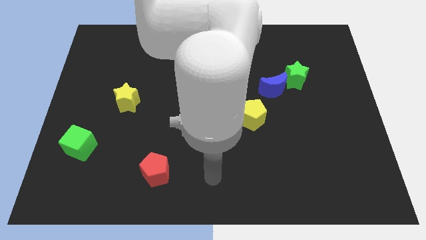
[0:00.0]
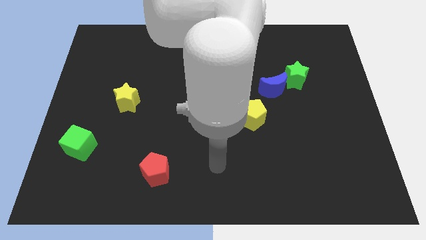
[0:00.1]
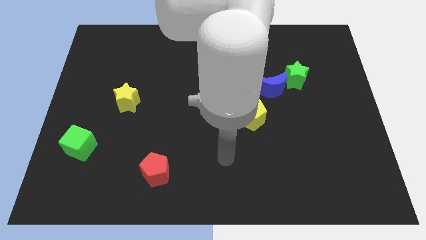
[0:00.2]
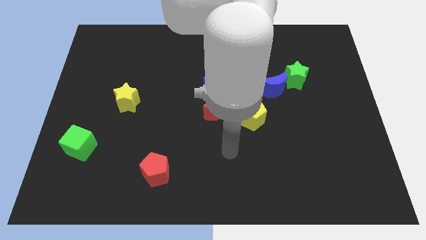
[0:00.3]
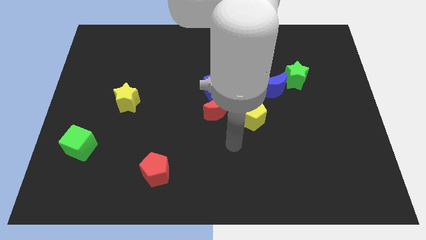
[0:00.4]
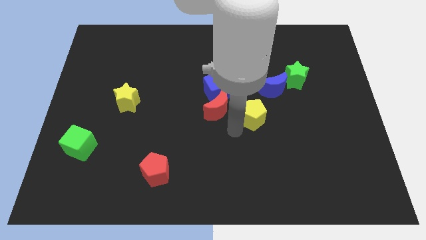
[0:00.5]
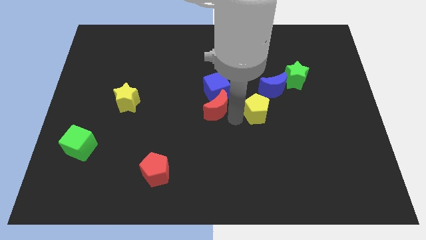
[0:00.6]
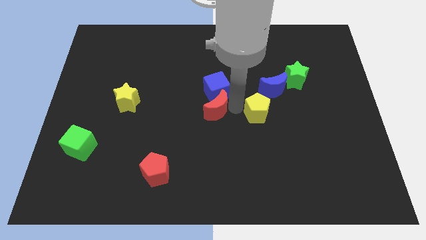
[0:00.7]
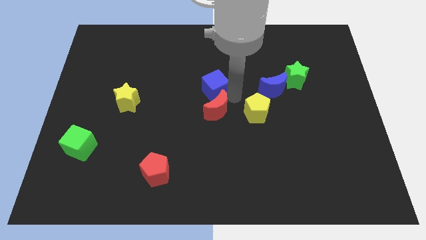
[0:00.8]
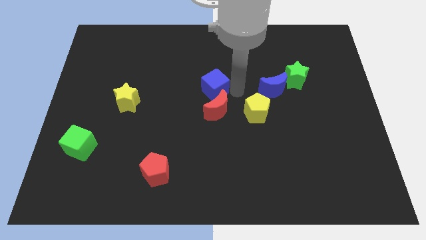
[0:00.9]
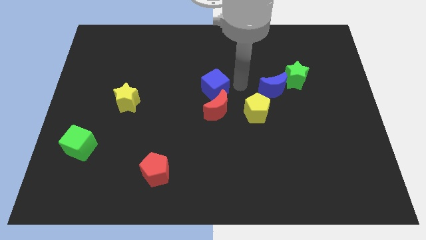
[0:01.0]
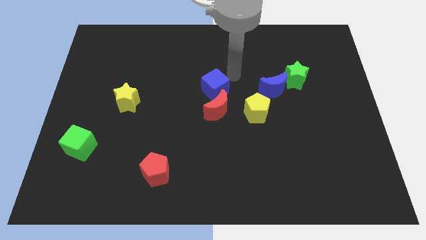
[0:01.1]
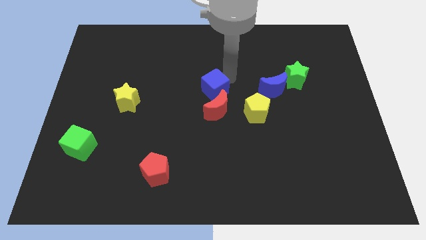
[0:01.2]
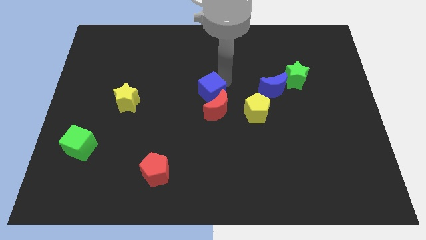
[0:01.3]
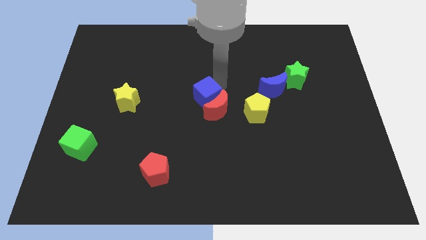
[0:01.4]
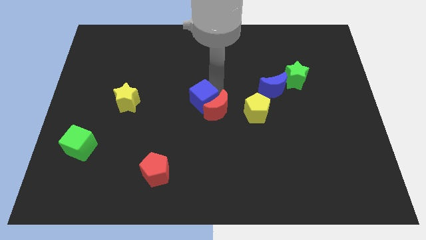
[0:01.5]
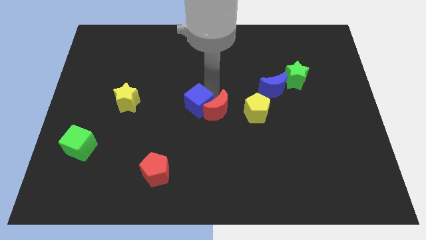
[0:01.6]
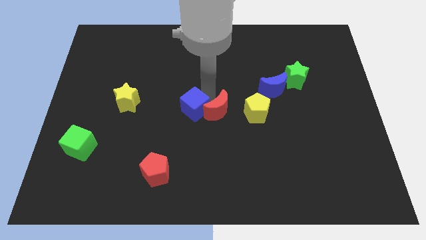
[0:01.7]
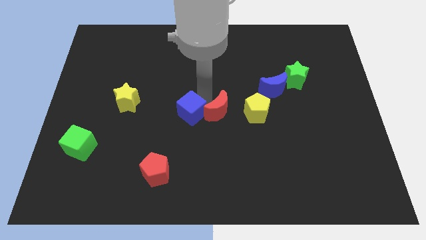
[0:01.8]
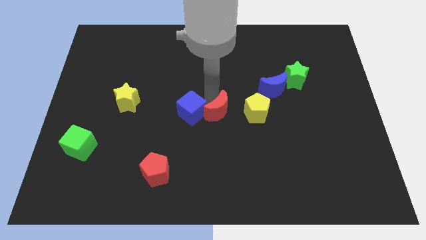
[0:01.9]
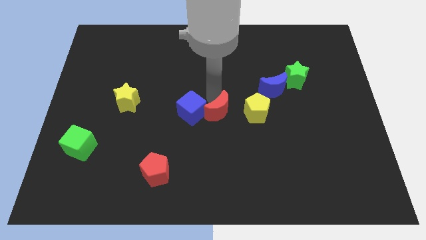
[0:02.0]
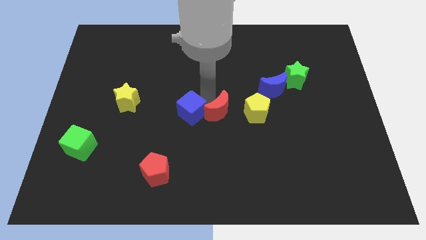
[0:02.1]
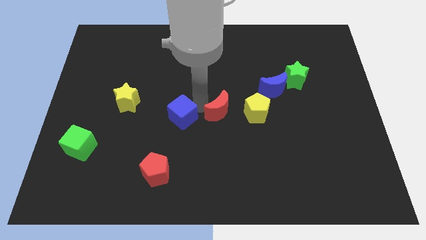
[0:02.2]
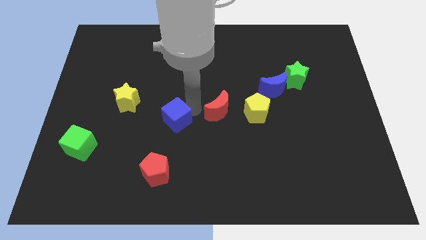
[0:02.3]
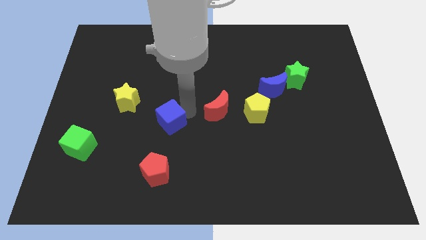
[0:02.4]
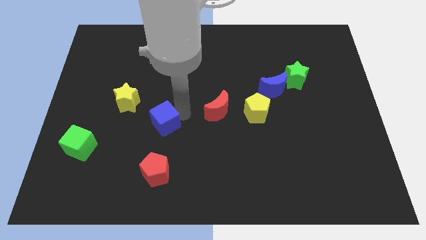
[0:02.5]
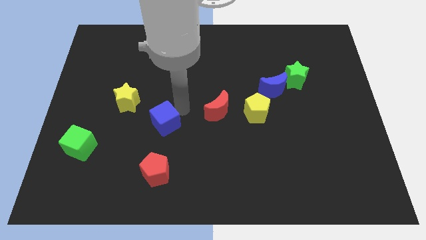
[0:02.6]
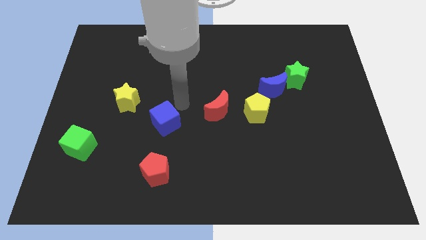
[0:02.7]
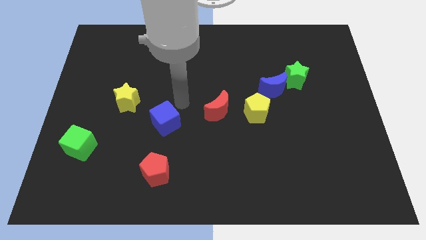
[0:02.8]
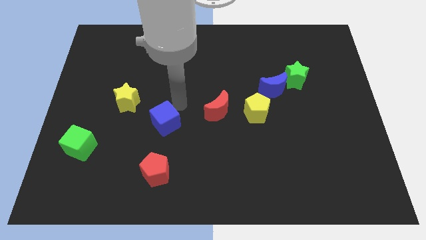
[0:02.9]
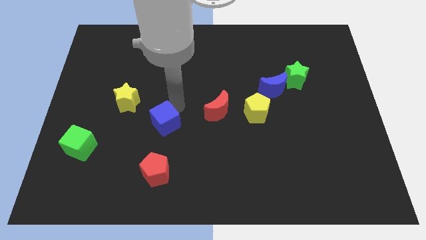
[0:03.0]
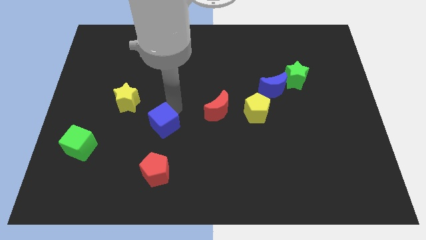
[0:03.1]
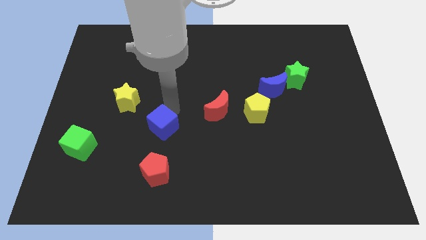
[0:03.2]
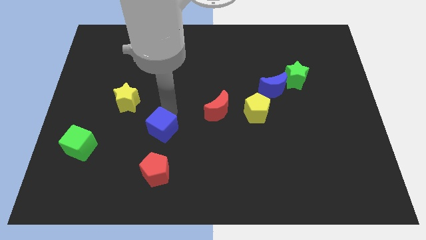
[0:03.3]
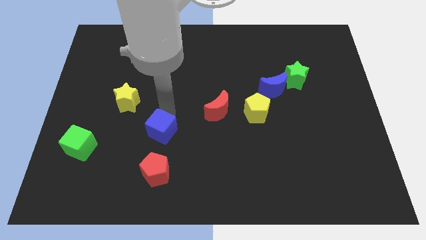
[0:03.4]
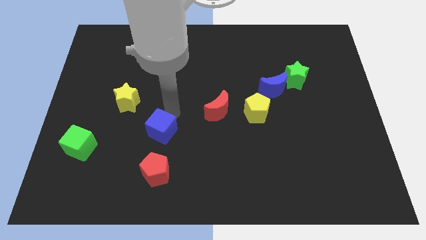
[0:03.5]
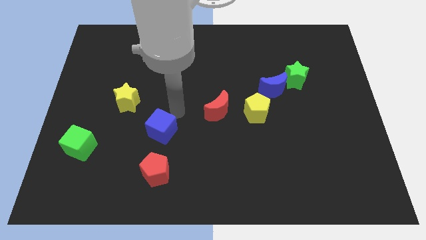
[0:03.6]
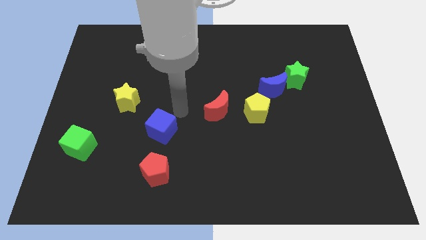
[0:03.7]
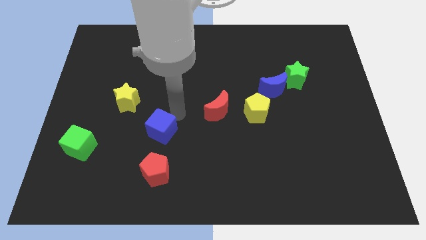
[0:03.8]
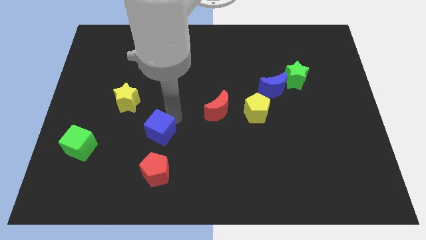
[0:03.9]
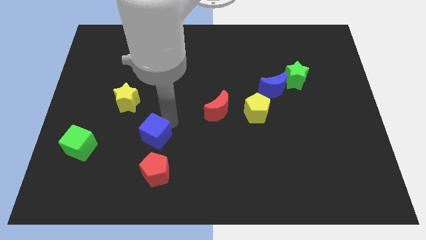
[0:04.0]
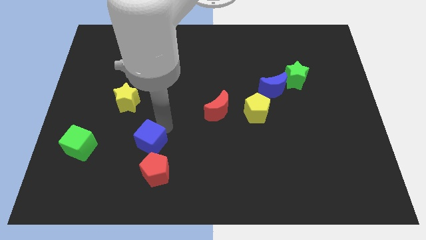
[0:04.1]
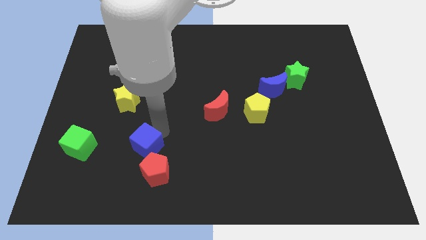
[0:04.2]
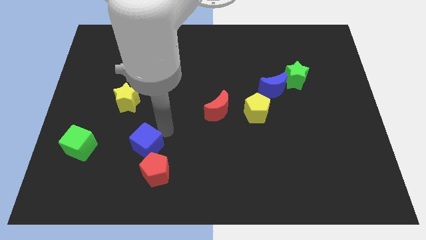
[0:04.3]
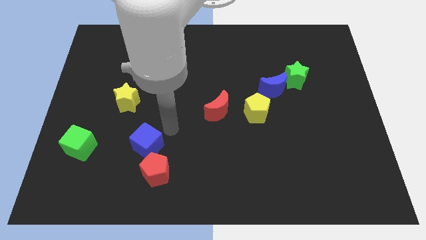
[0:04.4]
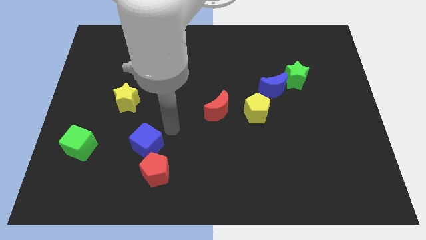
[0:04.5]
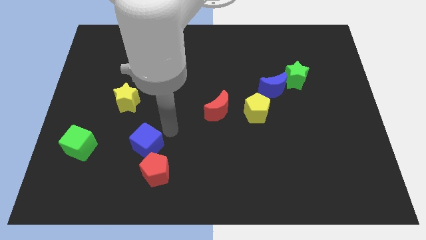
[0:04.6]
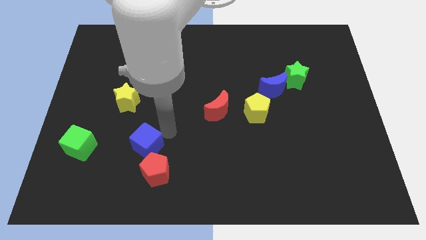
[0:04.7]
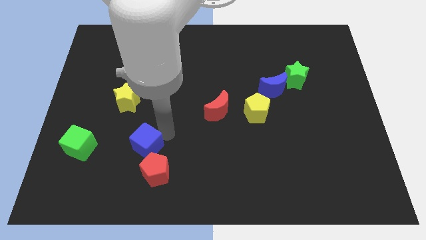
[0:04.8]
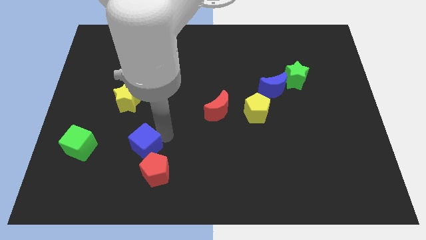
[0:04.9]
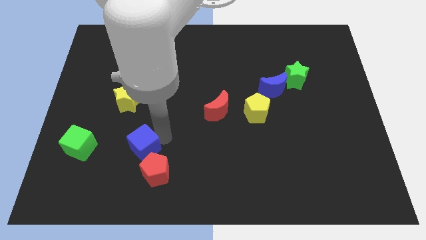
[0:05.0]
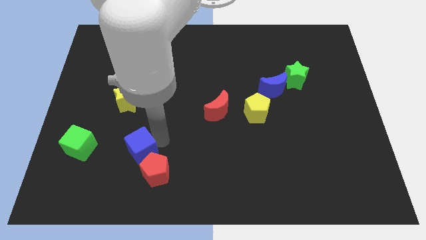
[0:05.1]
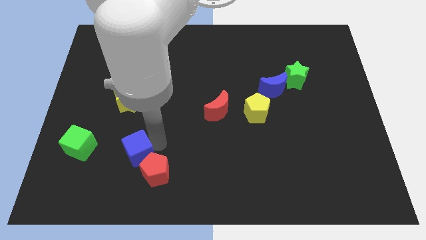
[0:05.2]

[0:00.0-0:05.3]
move the blue cube left of the red pentagon

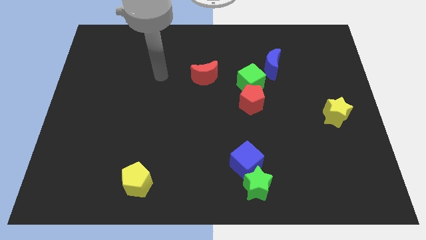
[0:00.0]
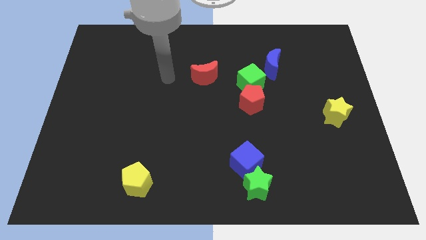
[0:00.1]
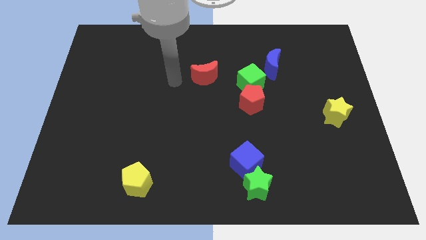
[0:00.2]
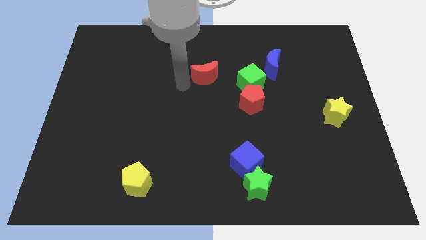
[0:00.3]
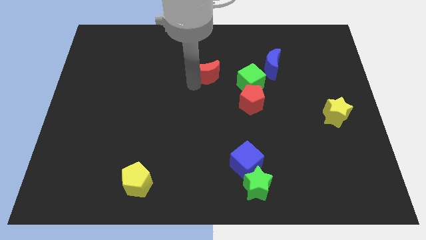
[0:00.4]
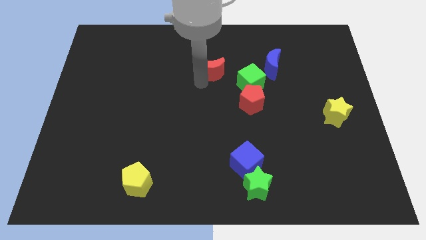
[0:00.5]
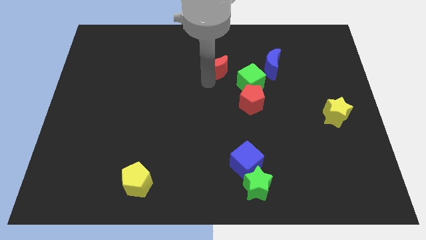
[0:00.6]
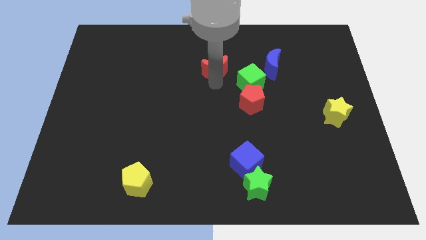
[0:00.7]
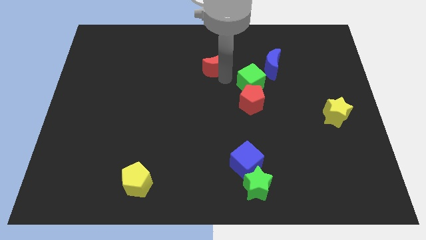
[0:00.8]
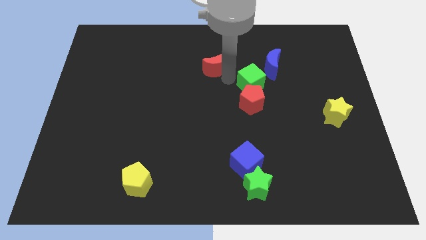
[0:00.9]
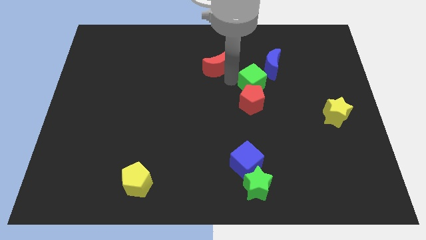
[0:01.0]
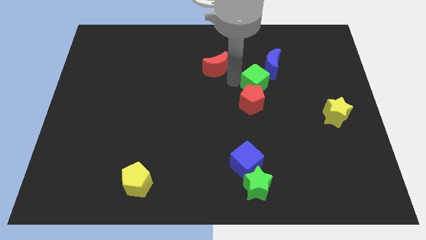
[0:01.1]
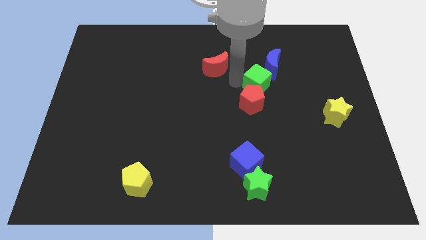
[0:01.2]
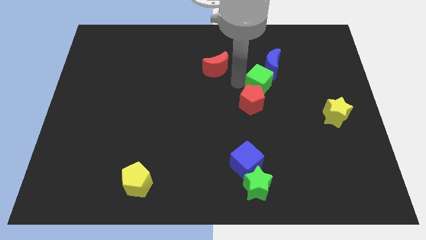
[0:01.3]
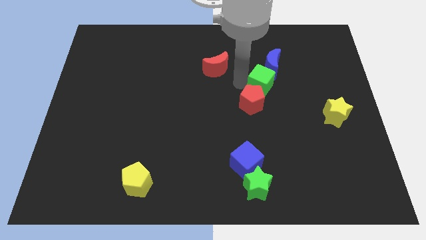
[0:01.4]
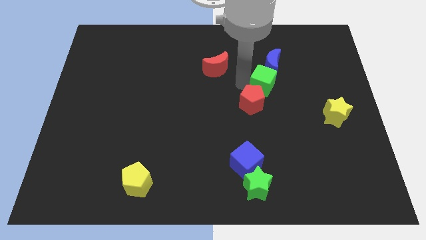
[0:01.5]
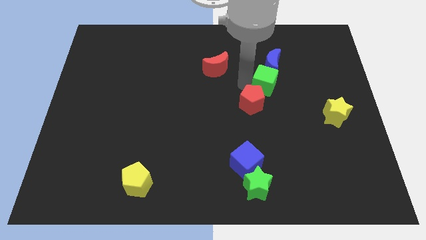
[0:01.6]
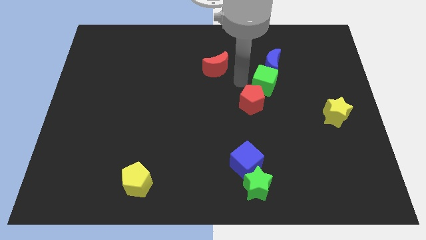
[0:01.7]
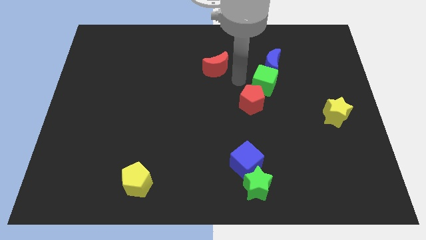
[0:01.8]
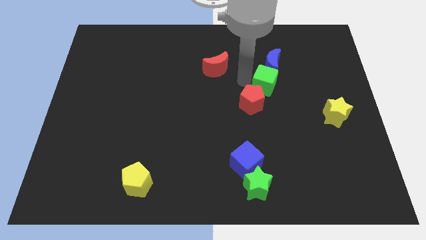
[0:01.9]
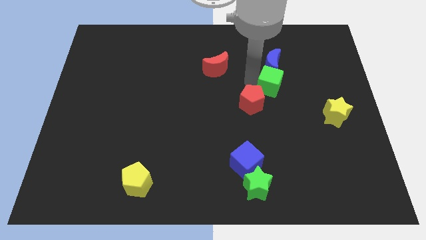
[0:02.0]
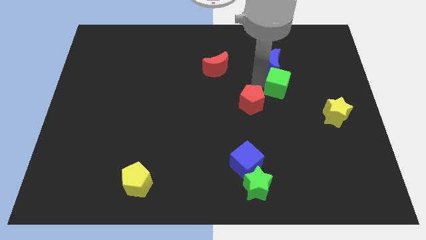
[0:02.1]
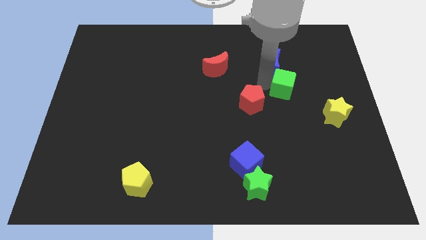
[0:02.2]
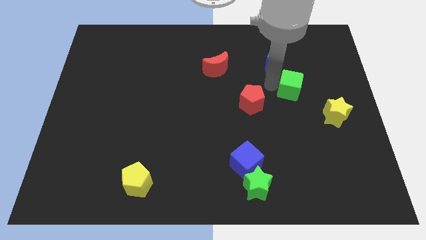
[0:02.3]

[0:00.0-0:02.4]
push the green cube diagonally up and to the left of the yellow star
